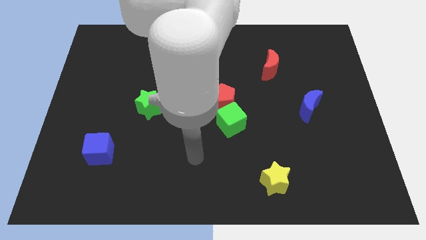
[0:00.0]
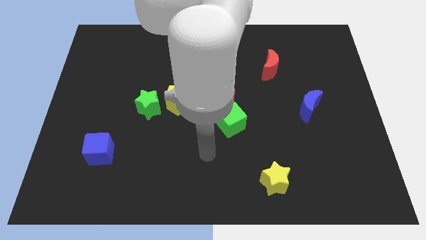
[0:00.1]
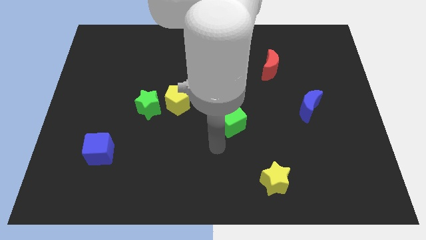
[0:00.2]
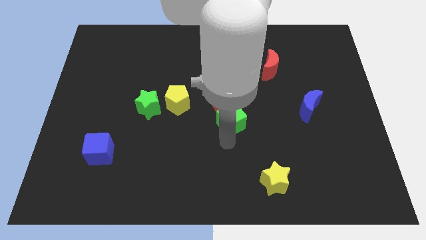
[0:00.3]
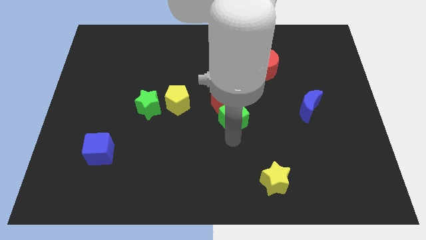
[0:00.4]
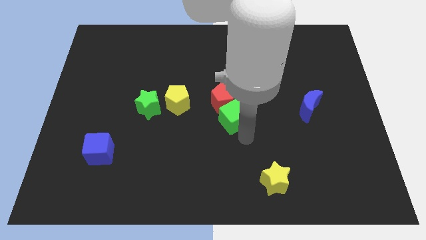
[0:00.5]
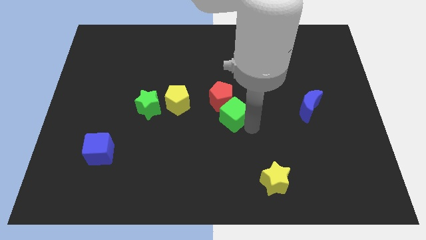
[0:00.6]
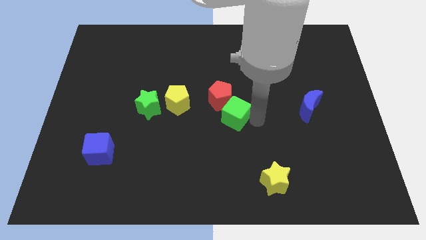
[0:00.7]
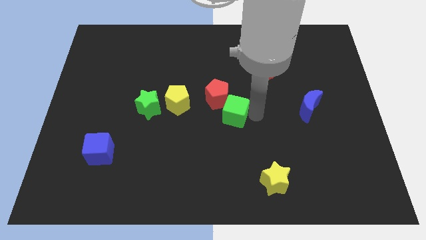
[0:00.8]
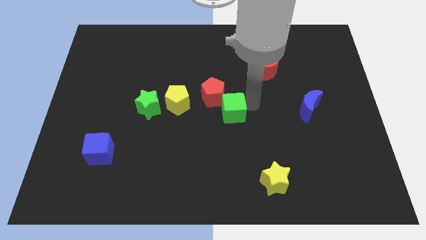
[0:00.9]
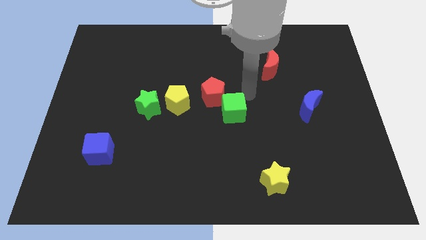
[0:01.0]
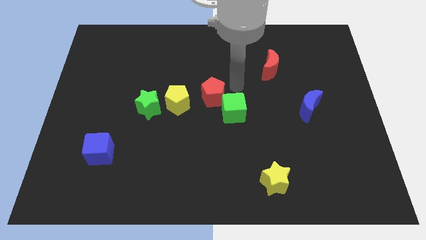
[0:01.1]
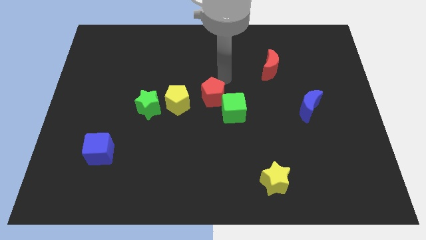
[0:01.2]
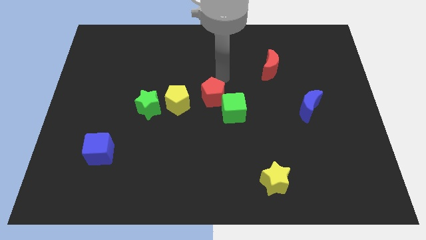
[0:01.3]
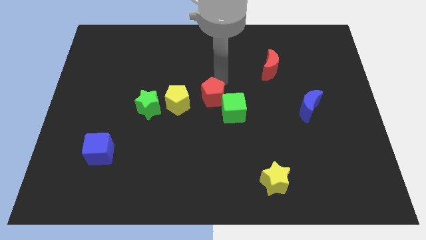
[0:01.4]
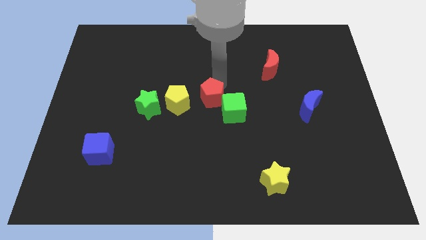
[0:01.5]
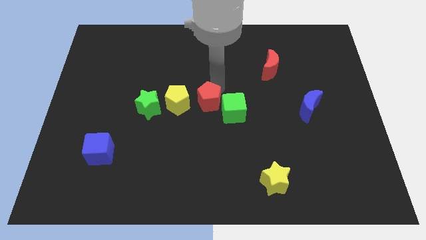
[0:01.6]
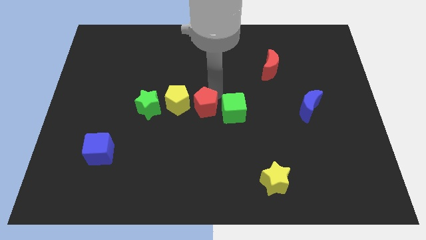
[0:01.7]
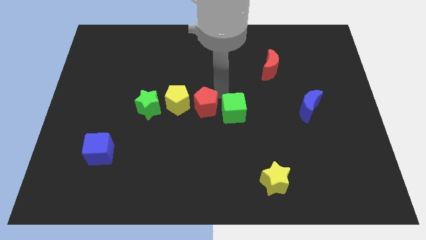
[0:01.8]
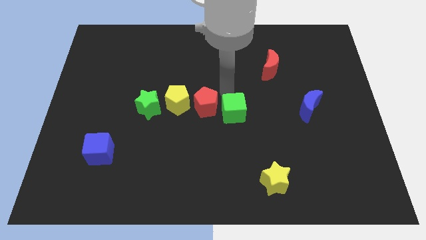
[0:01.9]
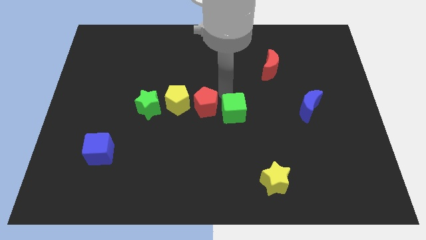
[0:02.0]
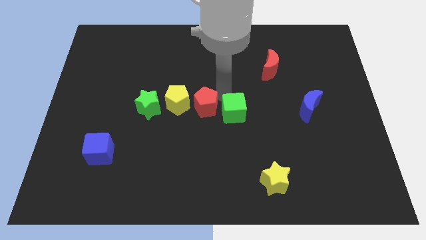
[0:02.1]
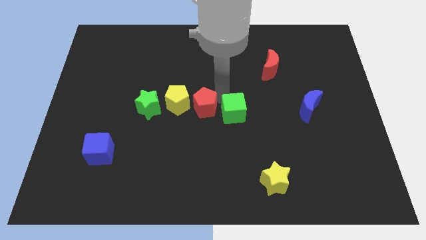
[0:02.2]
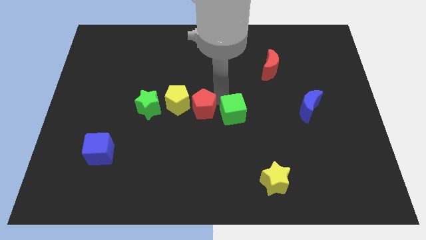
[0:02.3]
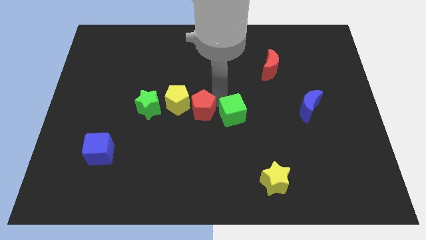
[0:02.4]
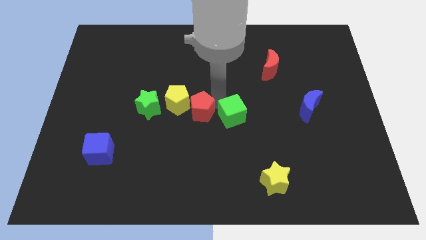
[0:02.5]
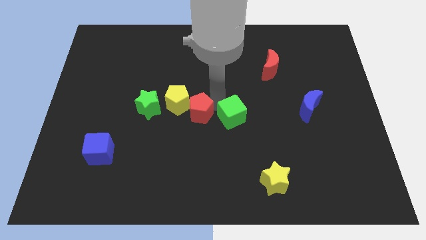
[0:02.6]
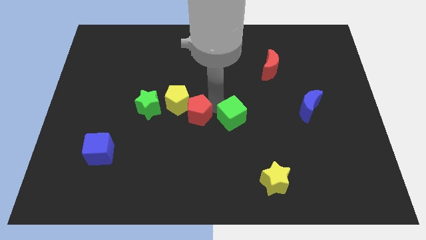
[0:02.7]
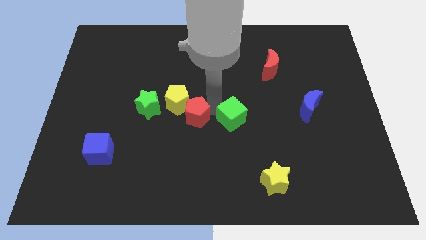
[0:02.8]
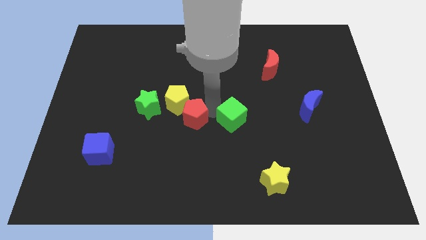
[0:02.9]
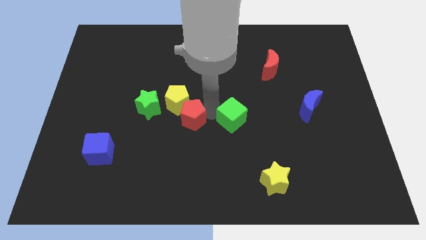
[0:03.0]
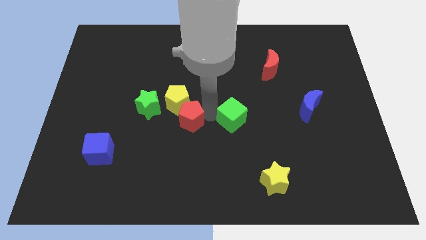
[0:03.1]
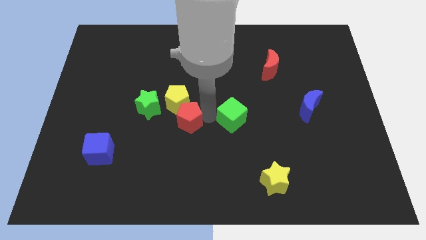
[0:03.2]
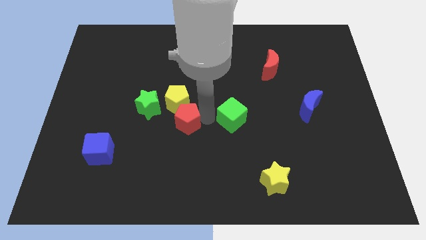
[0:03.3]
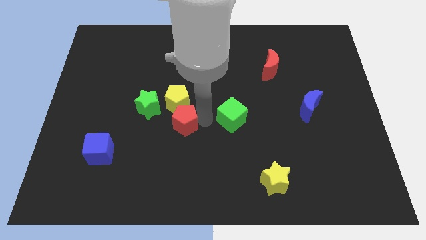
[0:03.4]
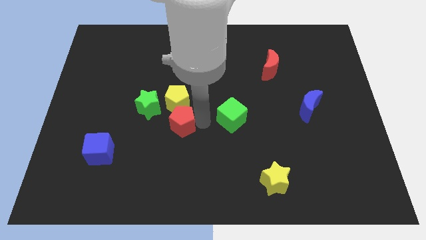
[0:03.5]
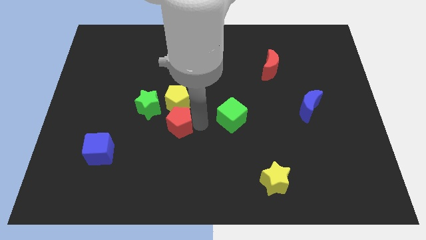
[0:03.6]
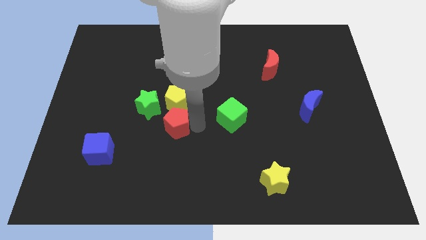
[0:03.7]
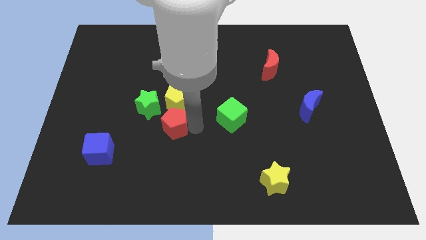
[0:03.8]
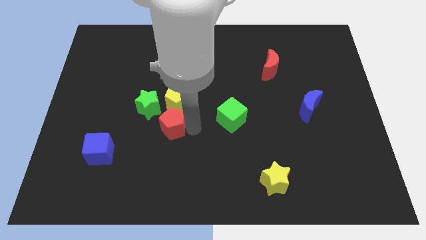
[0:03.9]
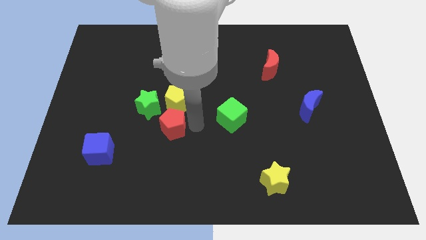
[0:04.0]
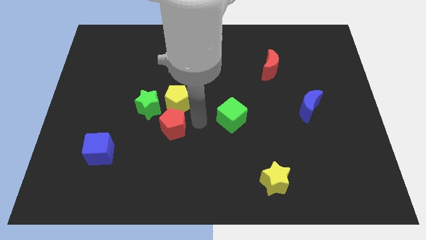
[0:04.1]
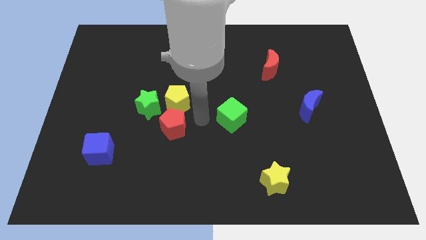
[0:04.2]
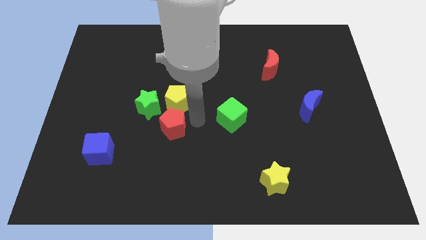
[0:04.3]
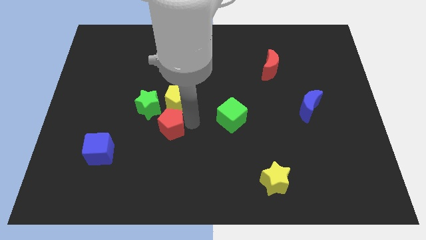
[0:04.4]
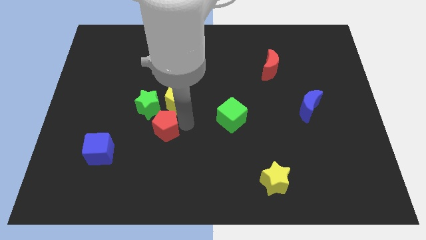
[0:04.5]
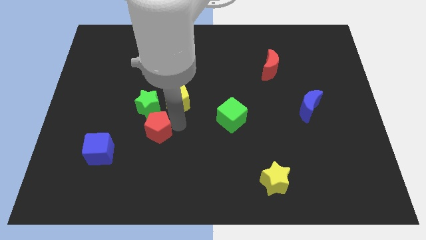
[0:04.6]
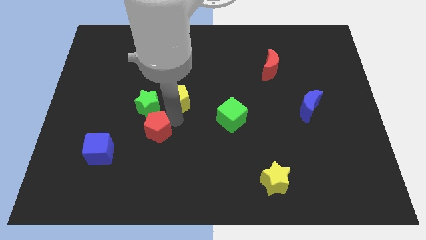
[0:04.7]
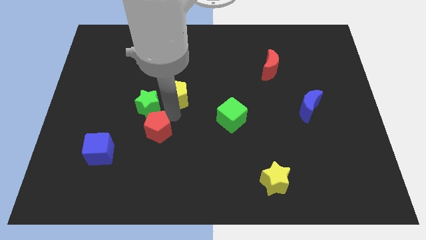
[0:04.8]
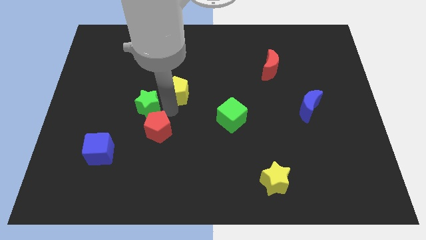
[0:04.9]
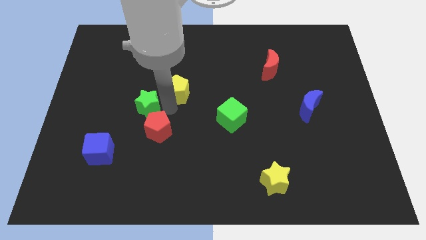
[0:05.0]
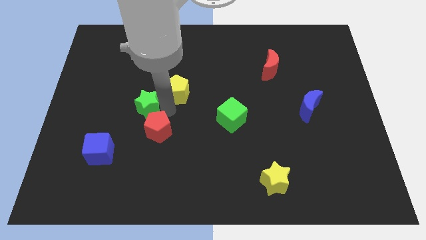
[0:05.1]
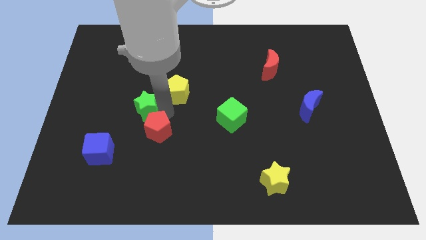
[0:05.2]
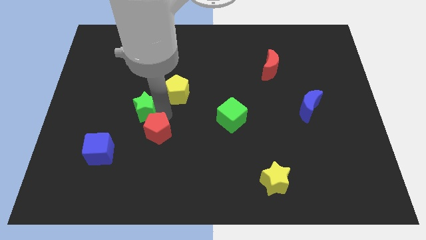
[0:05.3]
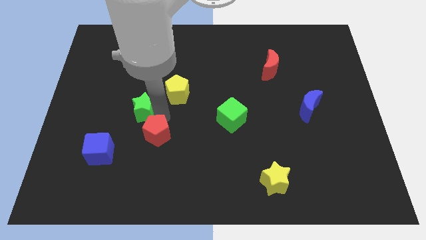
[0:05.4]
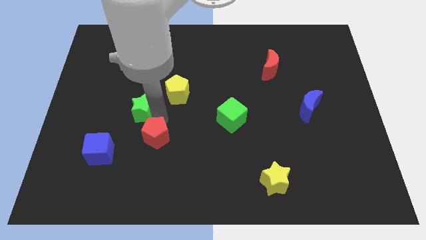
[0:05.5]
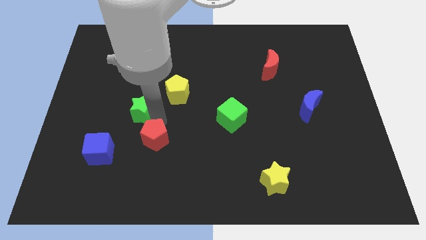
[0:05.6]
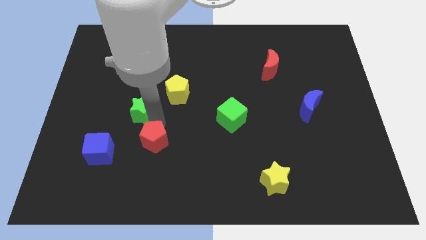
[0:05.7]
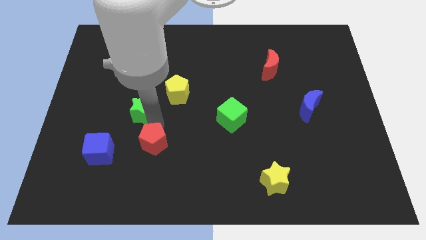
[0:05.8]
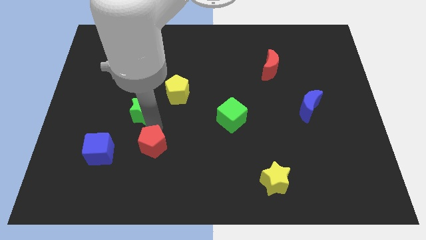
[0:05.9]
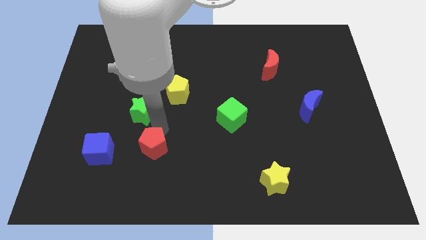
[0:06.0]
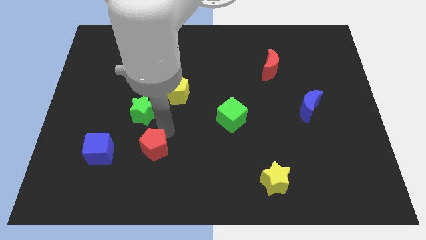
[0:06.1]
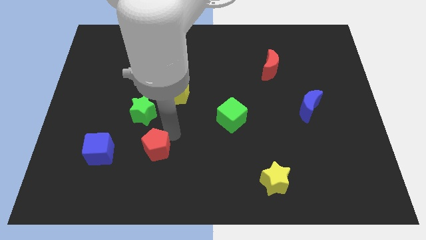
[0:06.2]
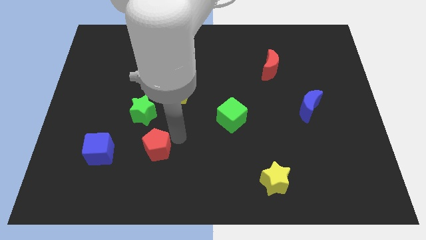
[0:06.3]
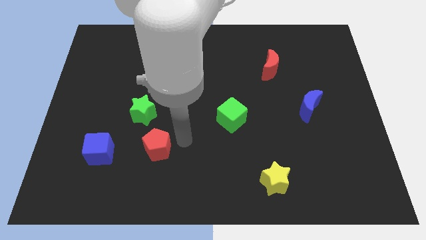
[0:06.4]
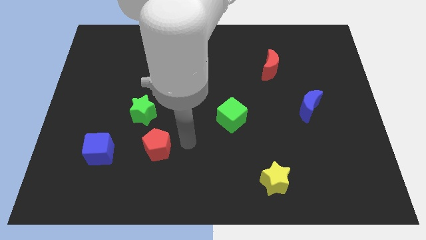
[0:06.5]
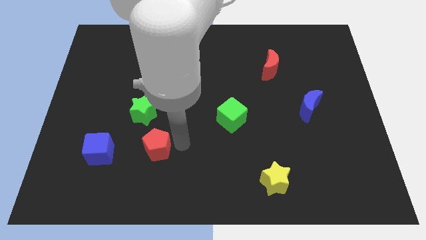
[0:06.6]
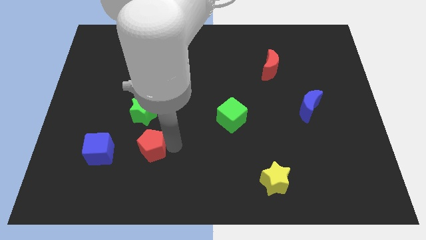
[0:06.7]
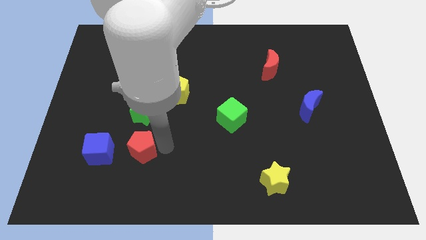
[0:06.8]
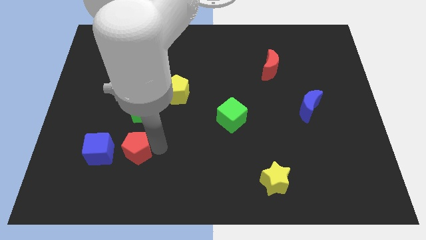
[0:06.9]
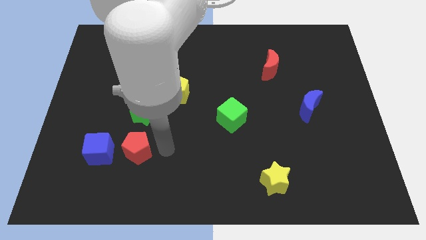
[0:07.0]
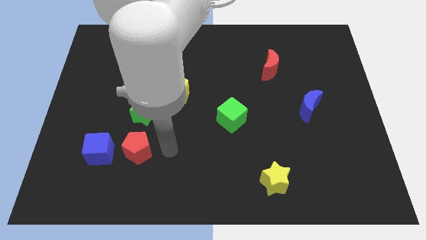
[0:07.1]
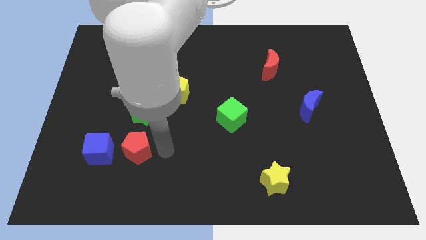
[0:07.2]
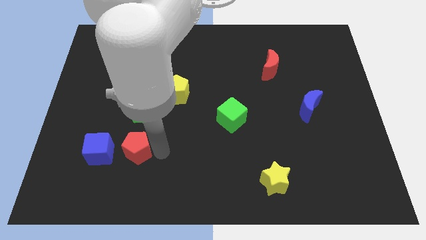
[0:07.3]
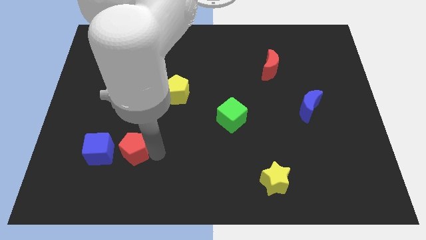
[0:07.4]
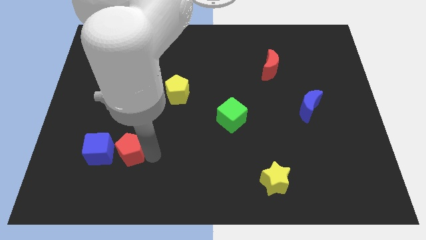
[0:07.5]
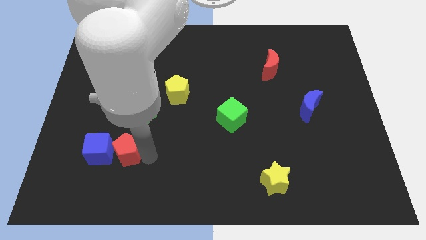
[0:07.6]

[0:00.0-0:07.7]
push the red pentagon to the blue cube
